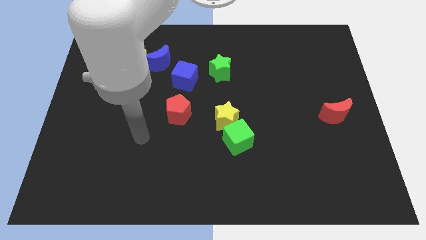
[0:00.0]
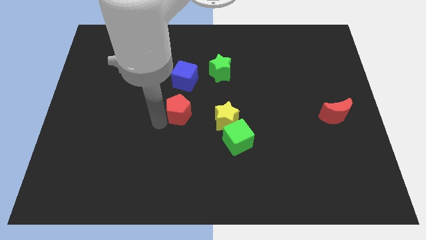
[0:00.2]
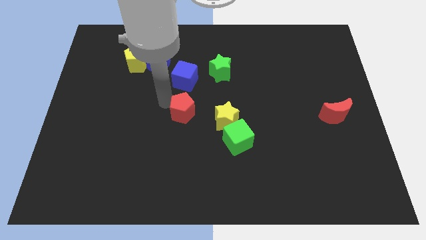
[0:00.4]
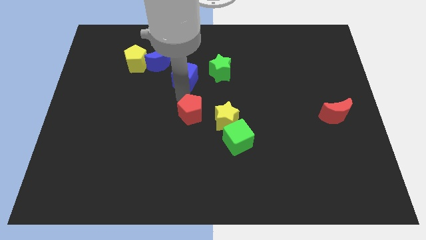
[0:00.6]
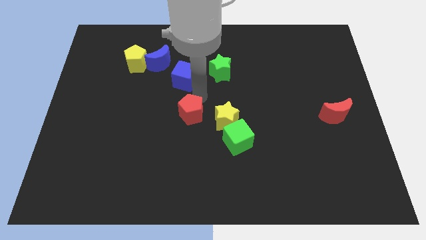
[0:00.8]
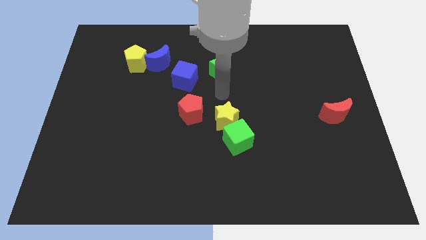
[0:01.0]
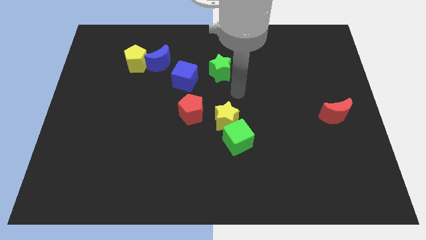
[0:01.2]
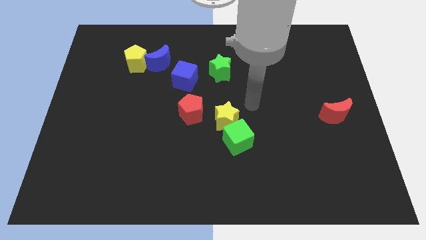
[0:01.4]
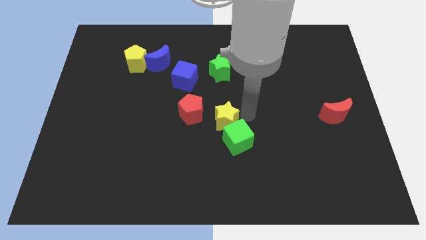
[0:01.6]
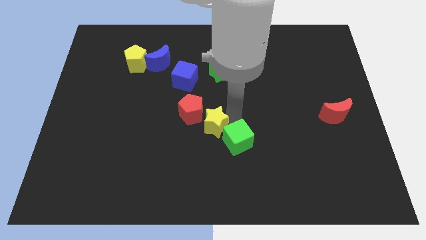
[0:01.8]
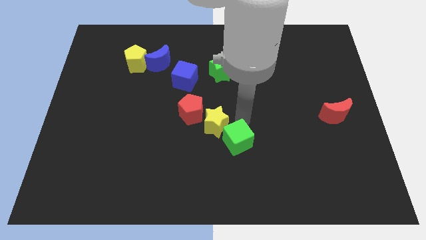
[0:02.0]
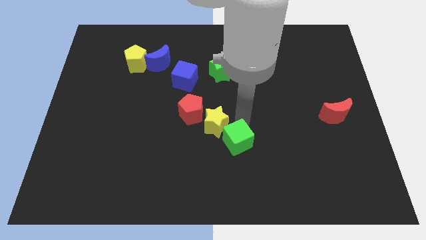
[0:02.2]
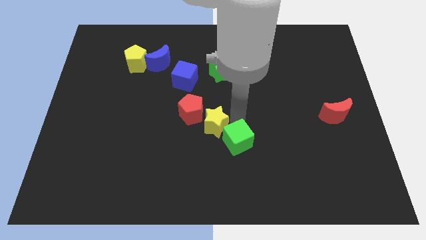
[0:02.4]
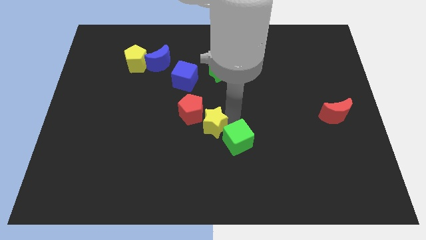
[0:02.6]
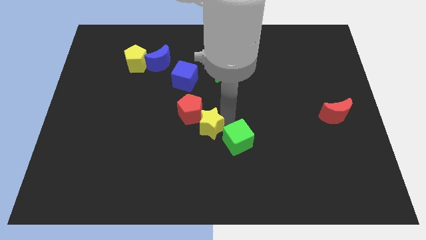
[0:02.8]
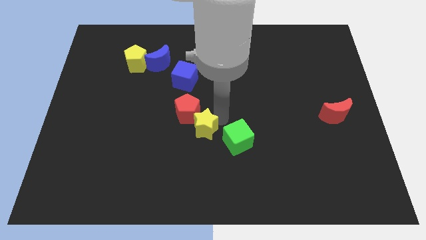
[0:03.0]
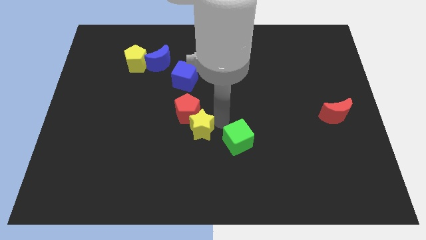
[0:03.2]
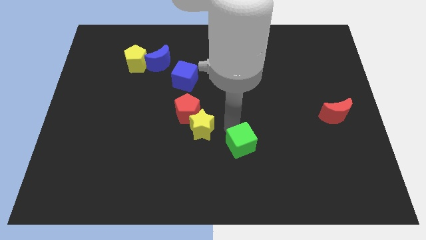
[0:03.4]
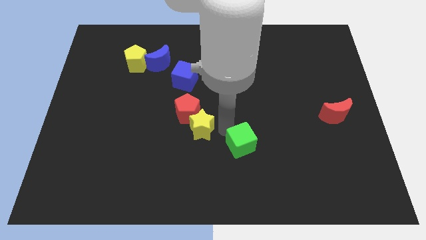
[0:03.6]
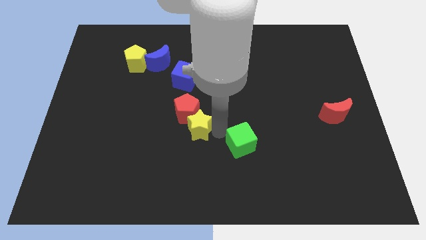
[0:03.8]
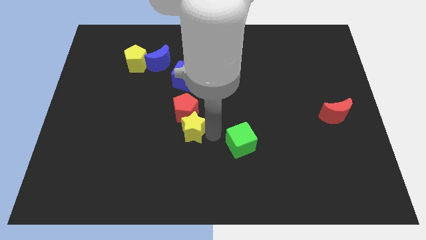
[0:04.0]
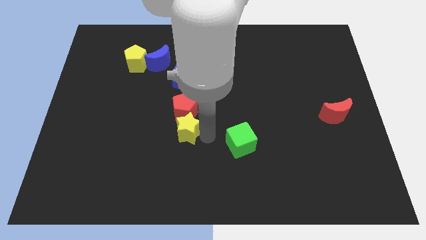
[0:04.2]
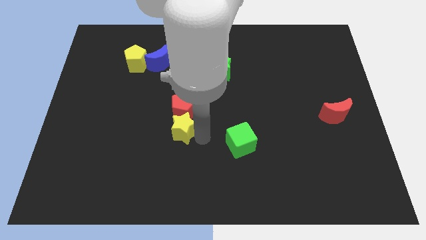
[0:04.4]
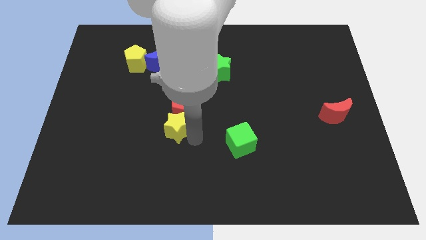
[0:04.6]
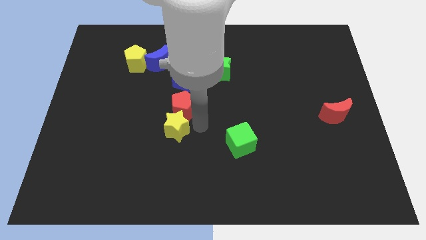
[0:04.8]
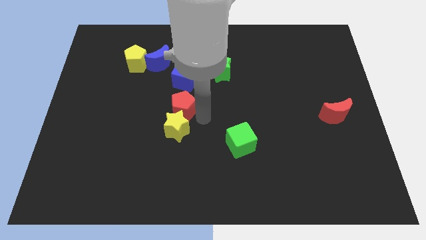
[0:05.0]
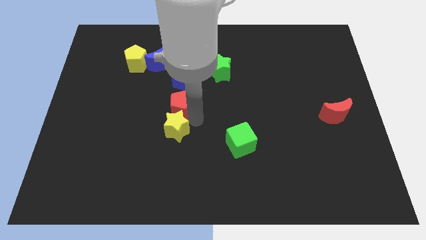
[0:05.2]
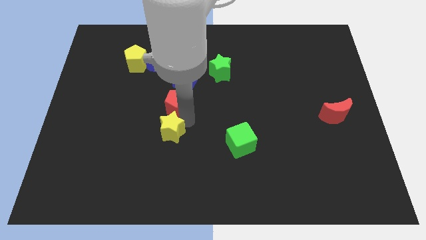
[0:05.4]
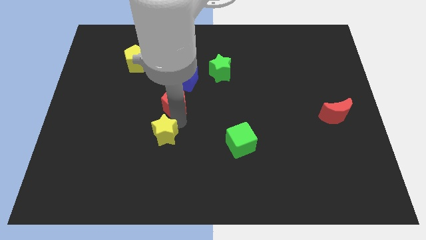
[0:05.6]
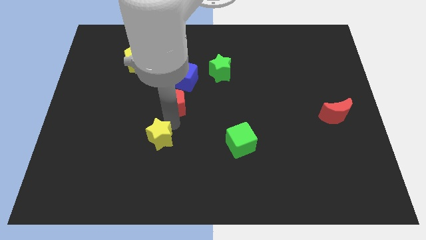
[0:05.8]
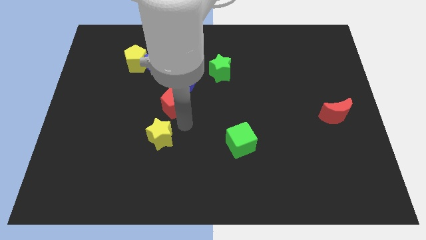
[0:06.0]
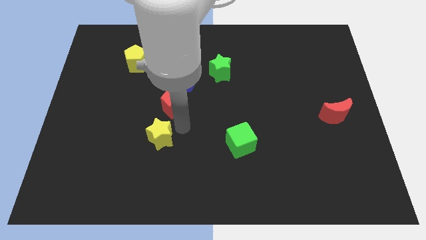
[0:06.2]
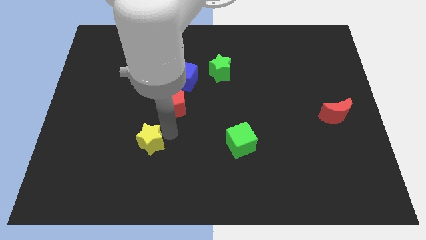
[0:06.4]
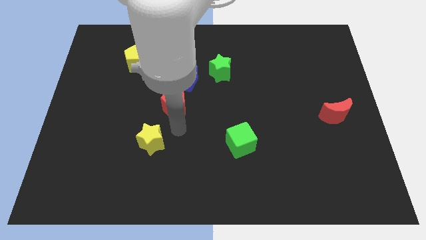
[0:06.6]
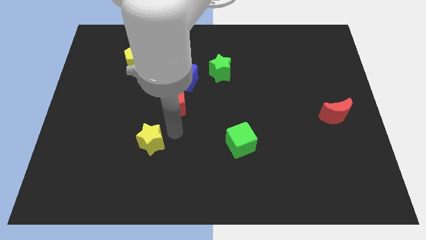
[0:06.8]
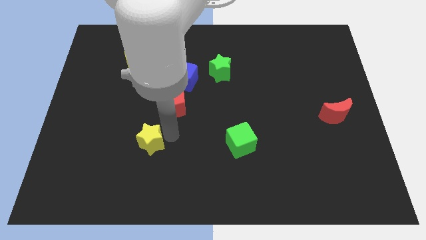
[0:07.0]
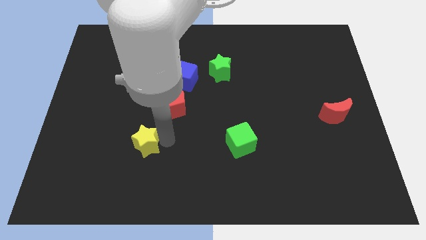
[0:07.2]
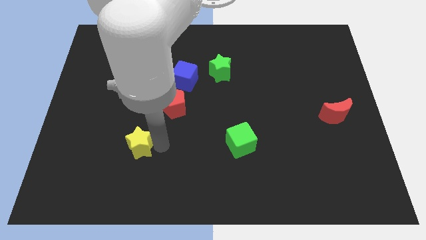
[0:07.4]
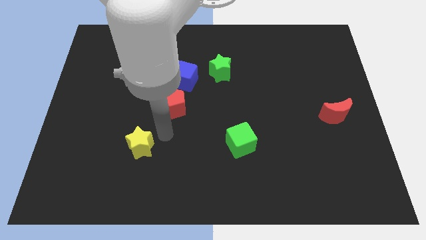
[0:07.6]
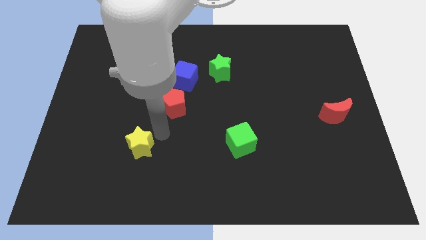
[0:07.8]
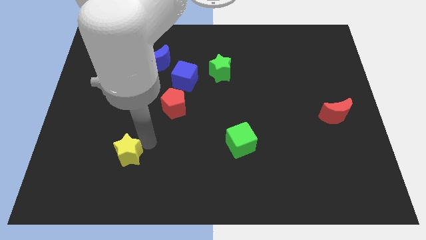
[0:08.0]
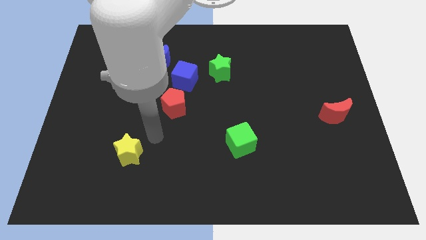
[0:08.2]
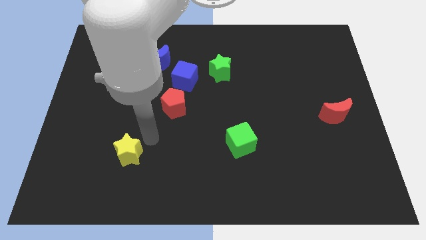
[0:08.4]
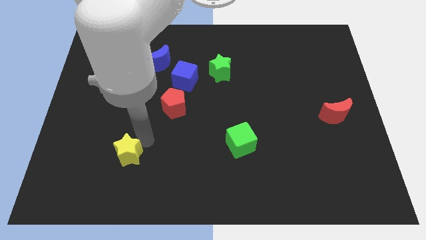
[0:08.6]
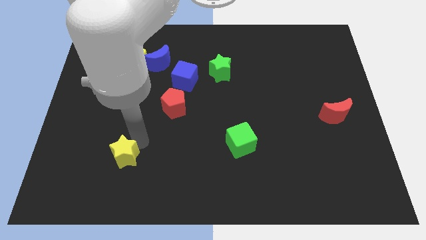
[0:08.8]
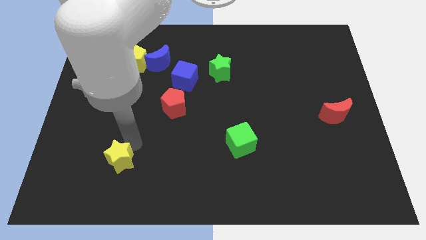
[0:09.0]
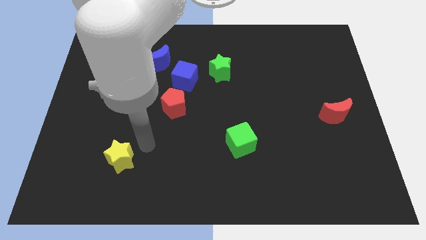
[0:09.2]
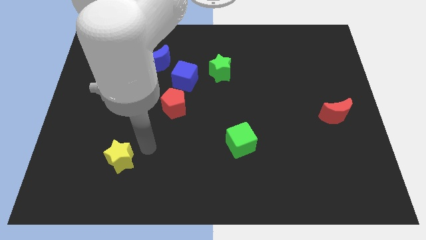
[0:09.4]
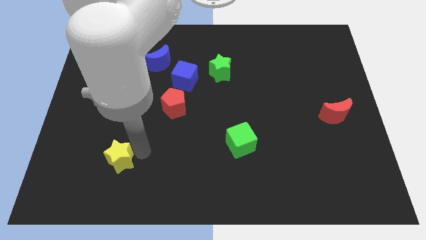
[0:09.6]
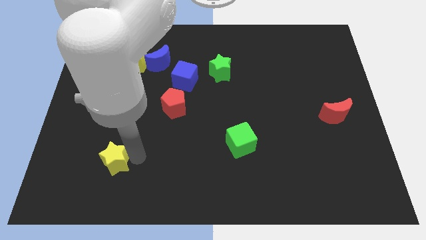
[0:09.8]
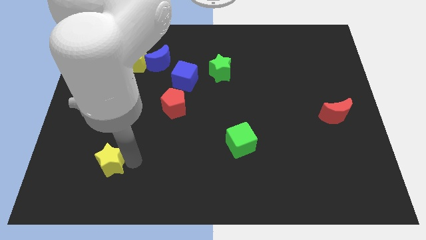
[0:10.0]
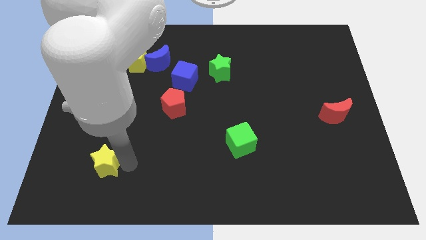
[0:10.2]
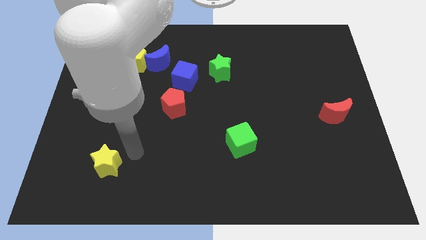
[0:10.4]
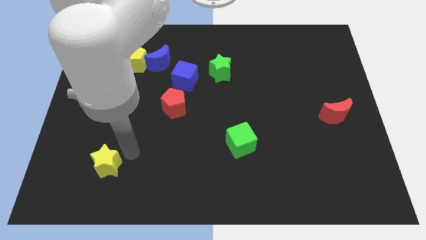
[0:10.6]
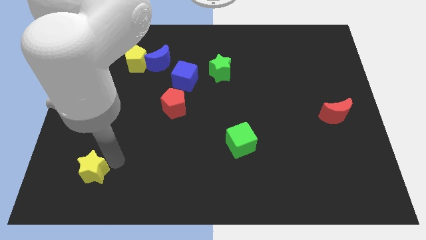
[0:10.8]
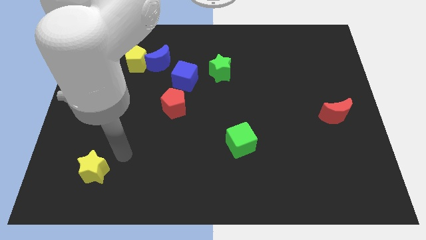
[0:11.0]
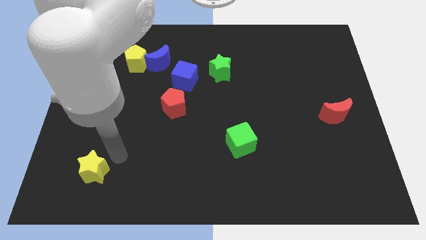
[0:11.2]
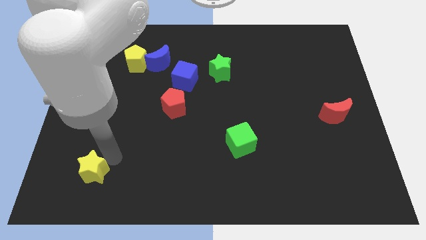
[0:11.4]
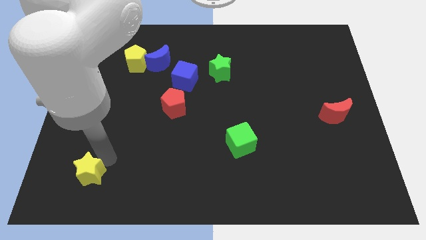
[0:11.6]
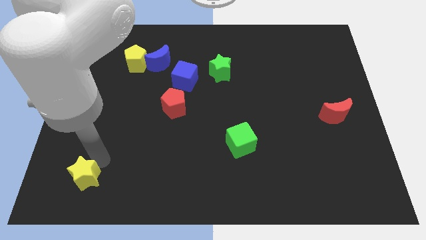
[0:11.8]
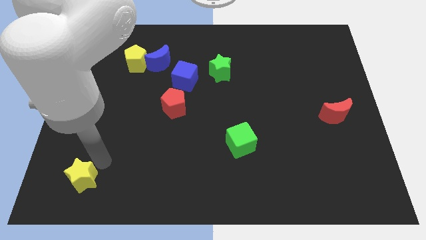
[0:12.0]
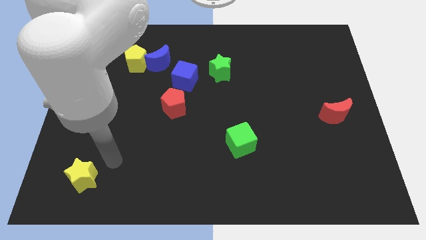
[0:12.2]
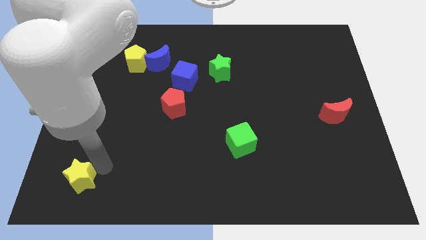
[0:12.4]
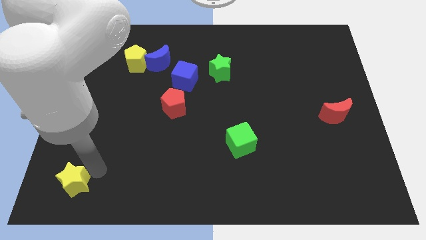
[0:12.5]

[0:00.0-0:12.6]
move the yellow star to the bottom left
